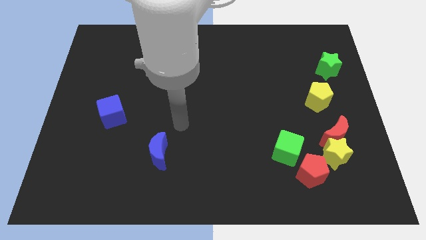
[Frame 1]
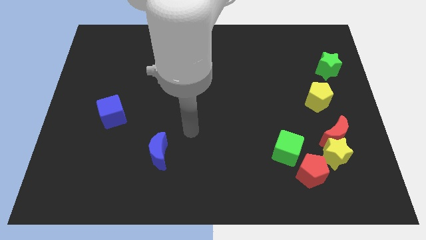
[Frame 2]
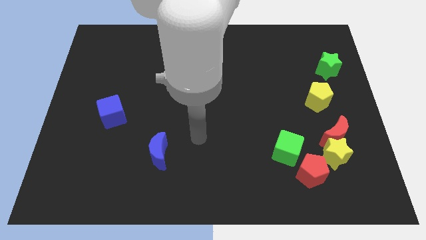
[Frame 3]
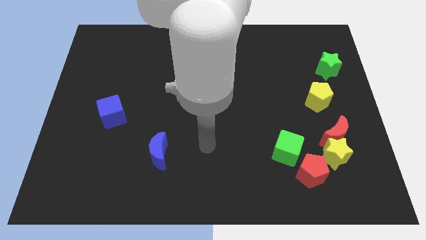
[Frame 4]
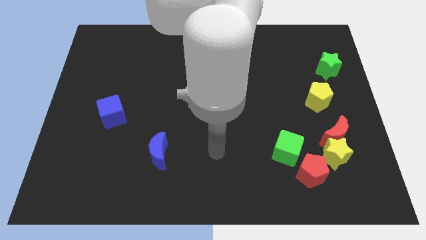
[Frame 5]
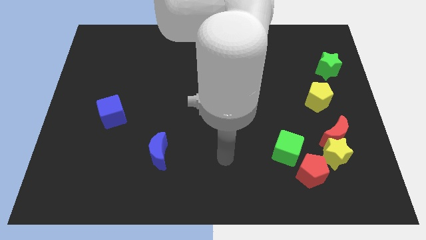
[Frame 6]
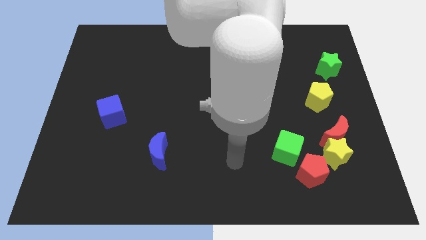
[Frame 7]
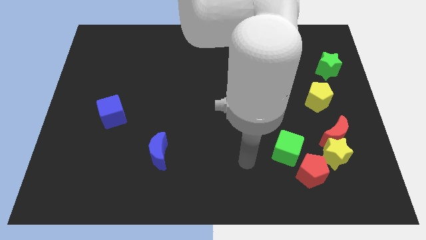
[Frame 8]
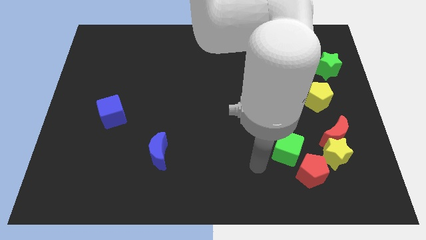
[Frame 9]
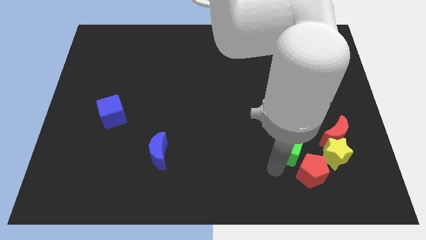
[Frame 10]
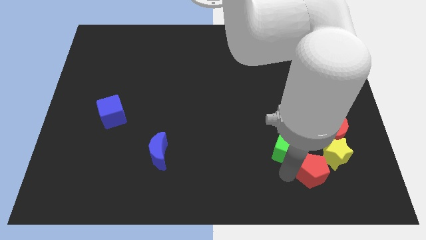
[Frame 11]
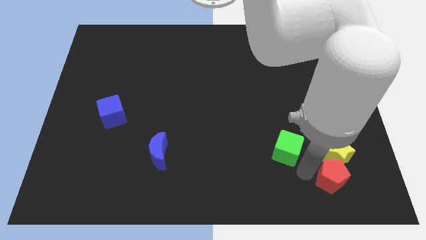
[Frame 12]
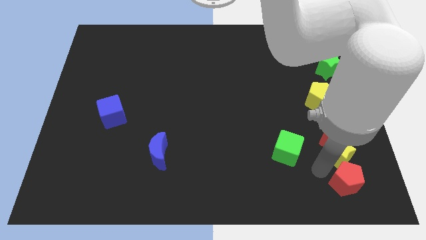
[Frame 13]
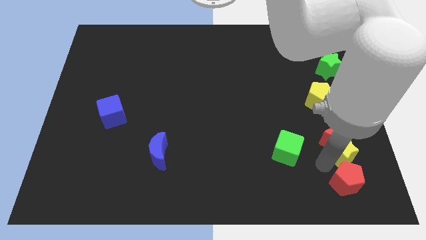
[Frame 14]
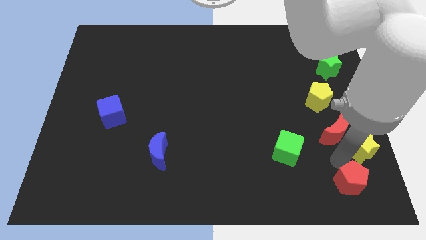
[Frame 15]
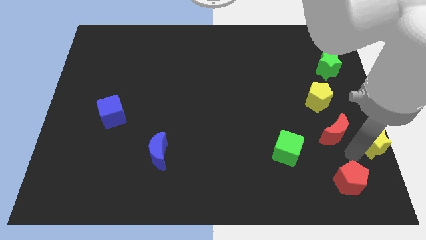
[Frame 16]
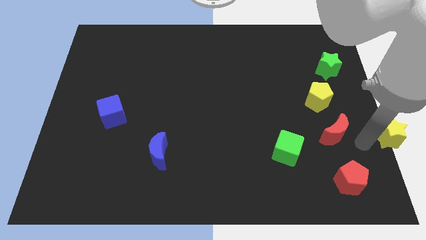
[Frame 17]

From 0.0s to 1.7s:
move the red moon away from the yellow star

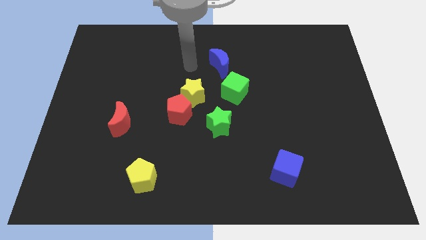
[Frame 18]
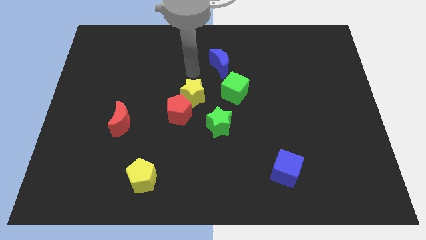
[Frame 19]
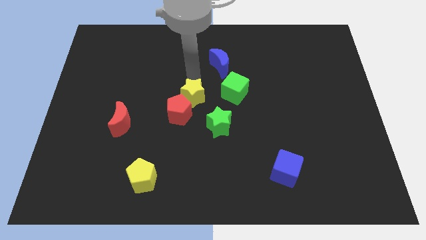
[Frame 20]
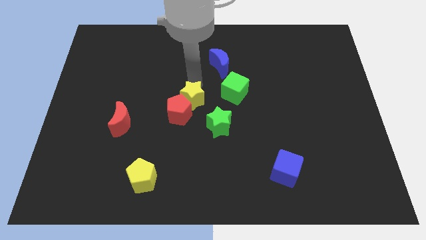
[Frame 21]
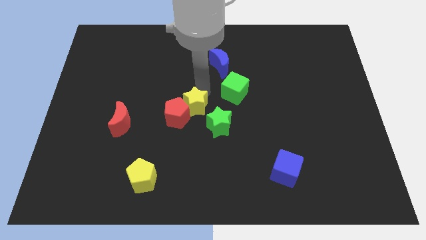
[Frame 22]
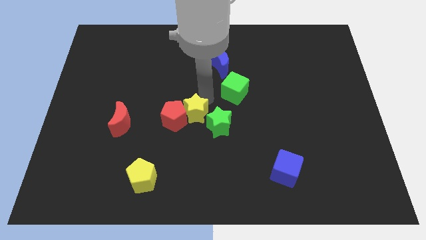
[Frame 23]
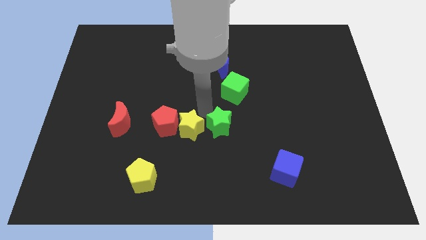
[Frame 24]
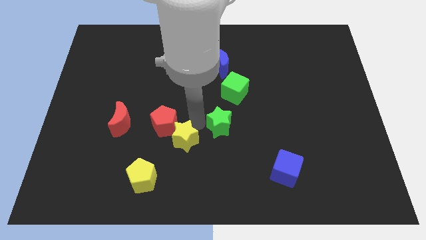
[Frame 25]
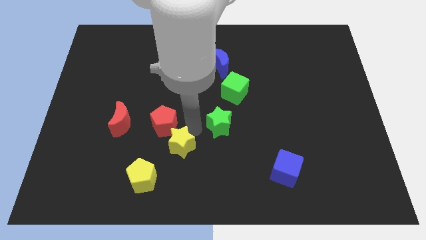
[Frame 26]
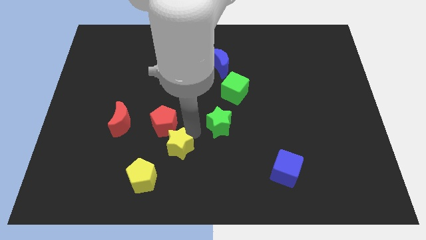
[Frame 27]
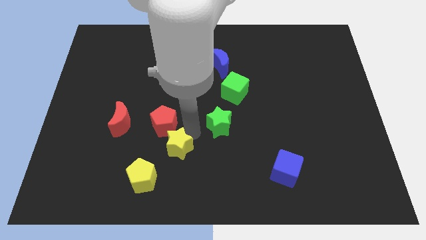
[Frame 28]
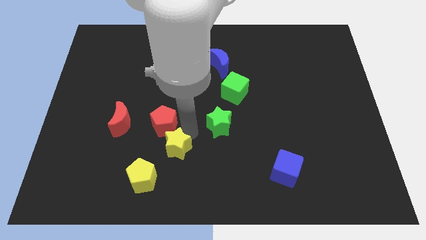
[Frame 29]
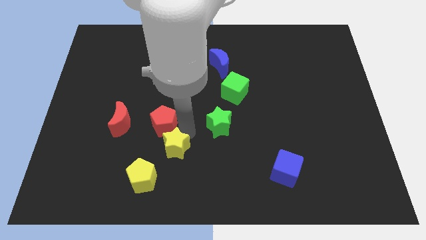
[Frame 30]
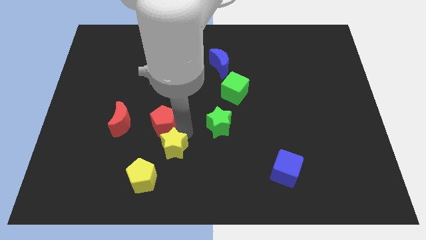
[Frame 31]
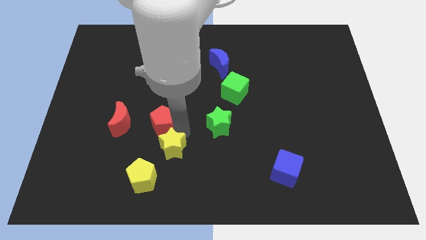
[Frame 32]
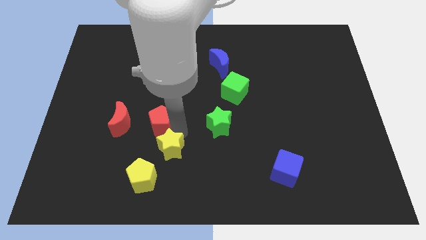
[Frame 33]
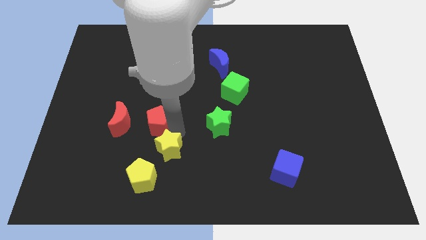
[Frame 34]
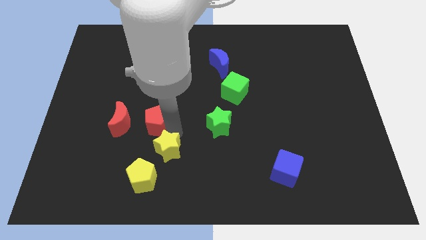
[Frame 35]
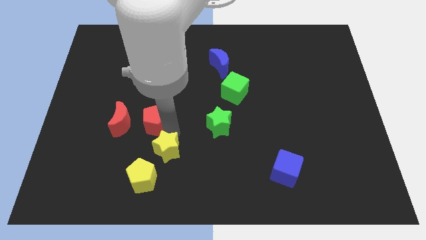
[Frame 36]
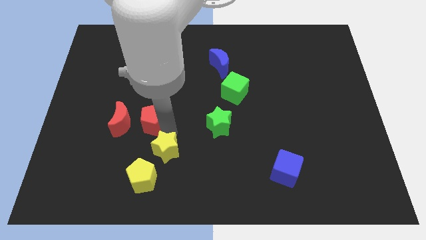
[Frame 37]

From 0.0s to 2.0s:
move the red pentagon away from the yellow star and green star

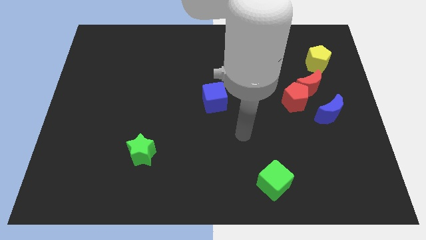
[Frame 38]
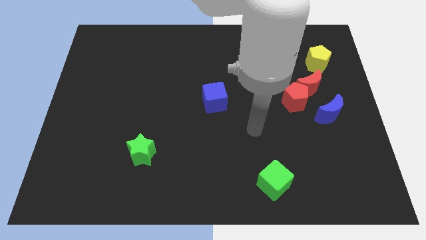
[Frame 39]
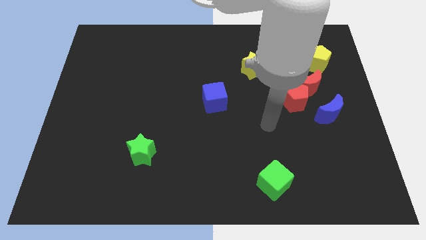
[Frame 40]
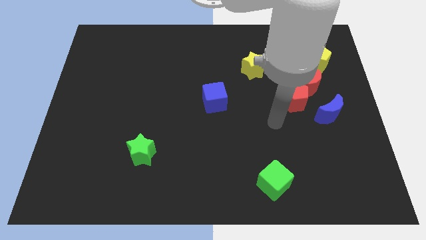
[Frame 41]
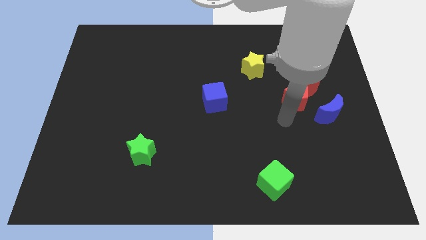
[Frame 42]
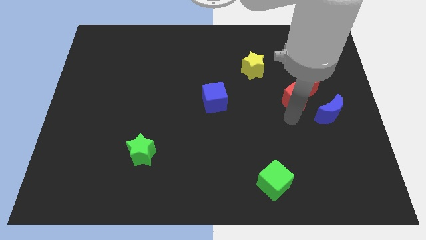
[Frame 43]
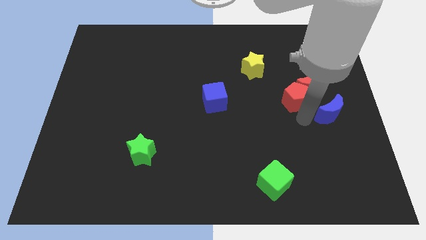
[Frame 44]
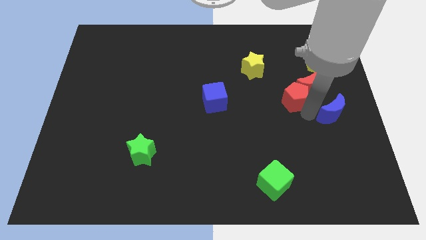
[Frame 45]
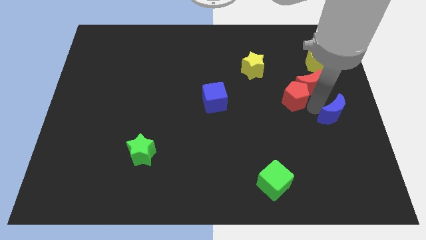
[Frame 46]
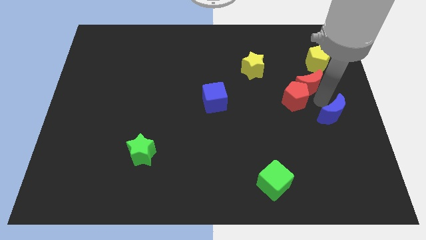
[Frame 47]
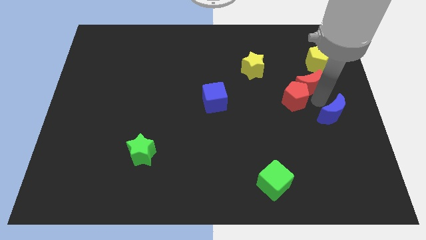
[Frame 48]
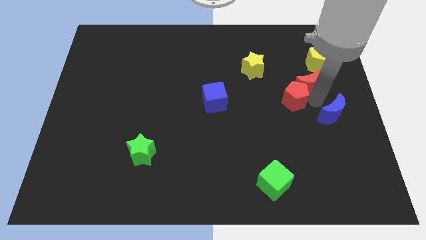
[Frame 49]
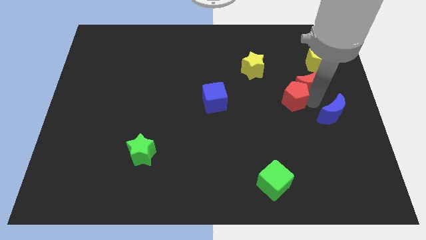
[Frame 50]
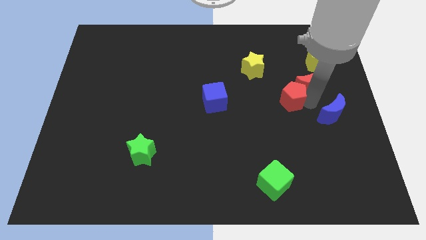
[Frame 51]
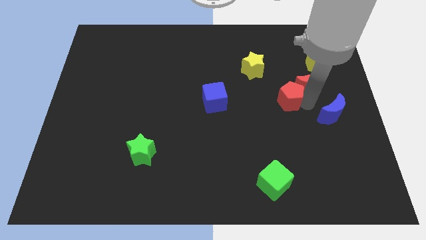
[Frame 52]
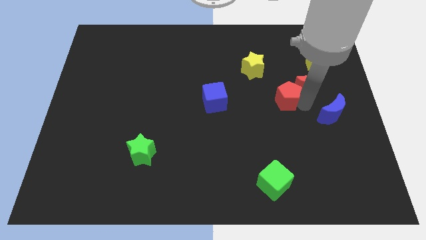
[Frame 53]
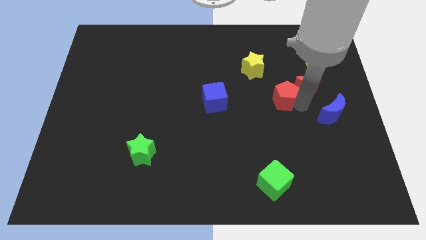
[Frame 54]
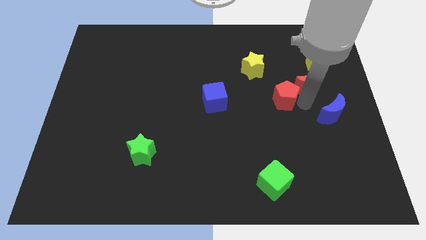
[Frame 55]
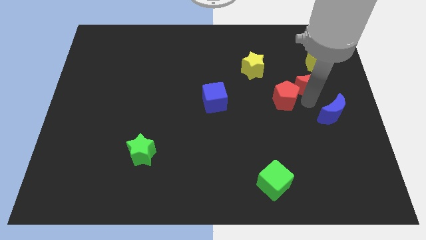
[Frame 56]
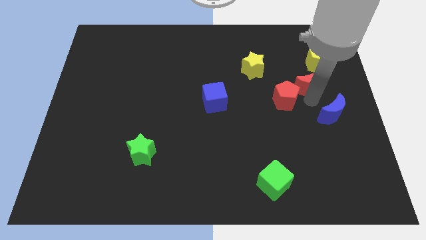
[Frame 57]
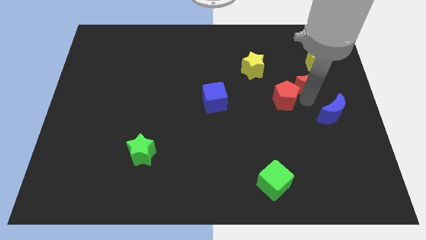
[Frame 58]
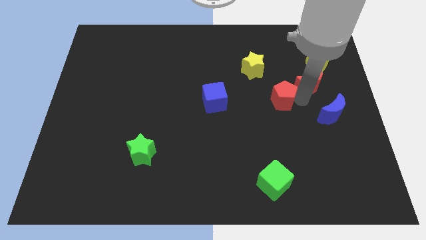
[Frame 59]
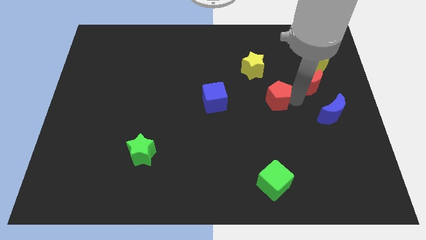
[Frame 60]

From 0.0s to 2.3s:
move the red pentagon away from the red moon and blue moon

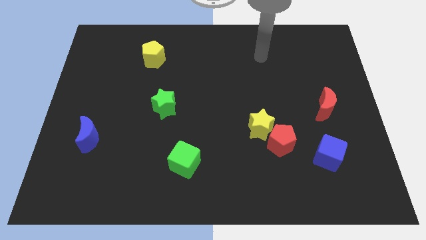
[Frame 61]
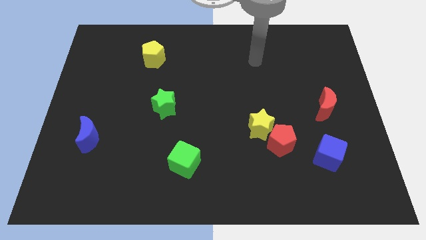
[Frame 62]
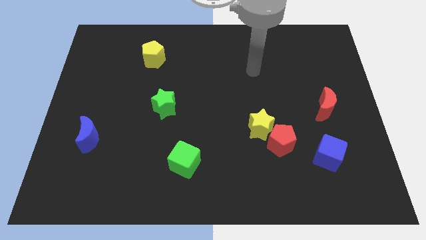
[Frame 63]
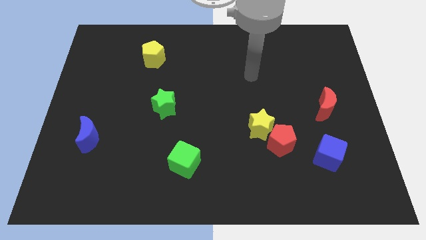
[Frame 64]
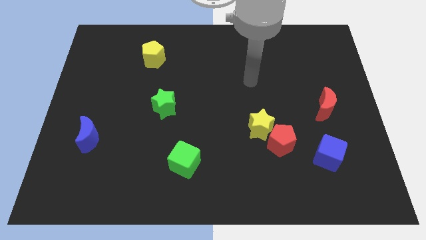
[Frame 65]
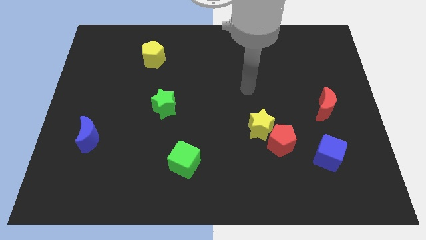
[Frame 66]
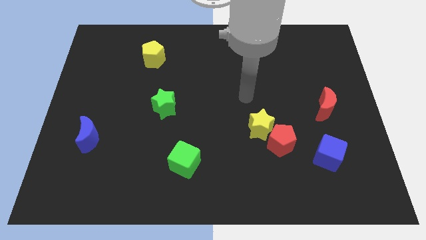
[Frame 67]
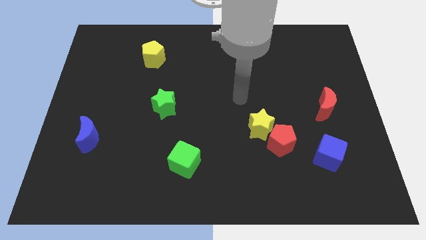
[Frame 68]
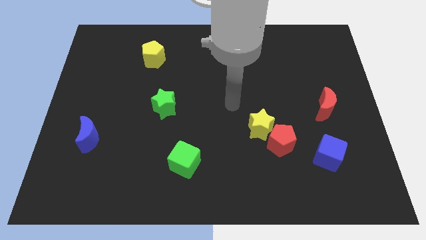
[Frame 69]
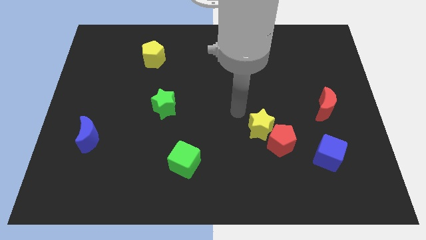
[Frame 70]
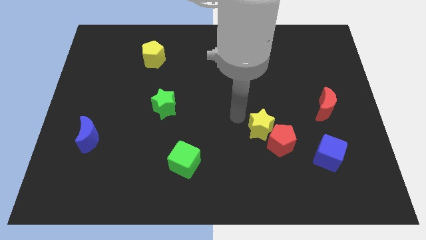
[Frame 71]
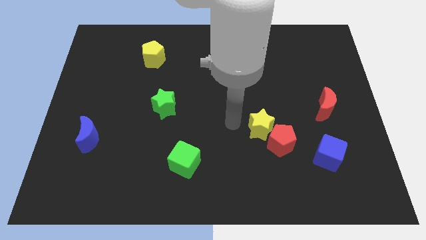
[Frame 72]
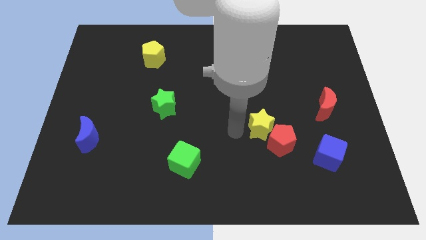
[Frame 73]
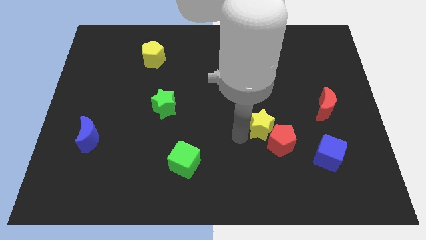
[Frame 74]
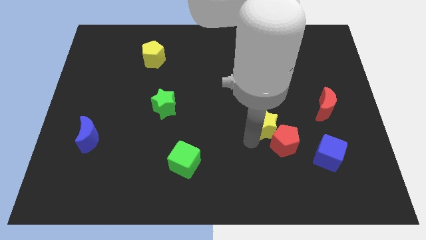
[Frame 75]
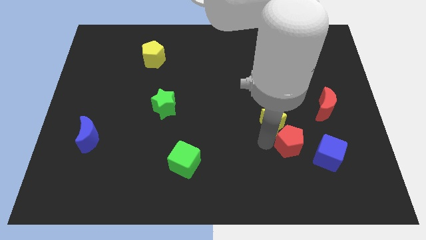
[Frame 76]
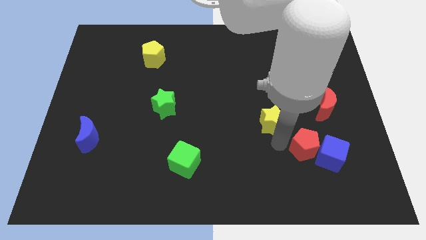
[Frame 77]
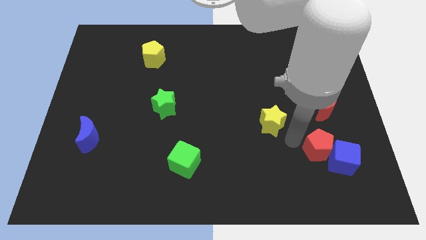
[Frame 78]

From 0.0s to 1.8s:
pull the yellow star apart from the red pentagon

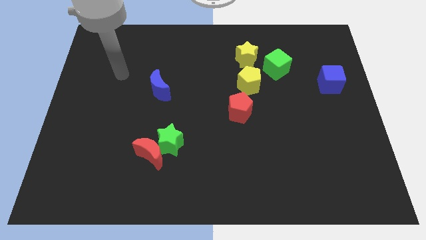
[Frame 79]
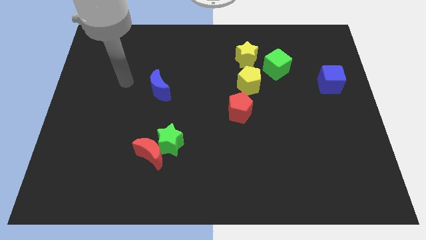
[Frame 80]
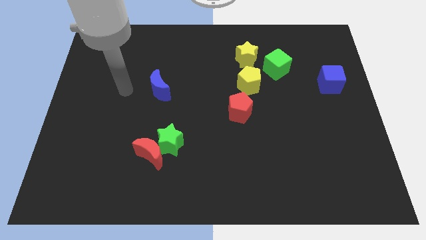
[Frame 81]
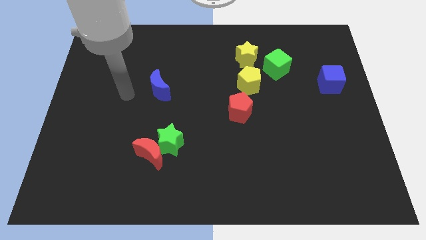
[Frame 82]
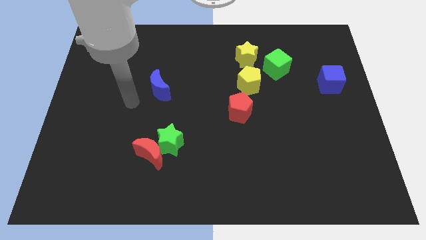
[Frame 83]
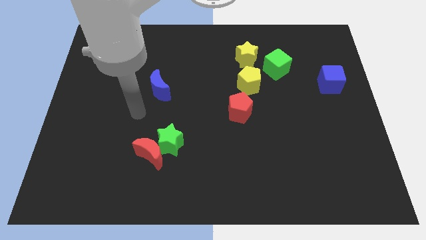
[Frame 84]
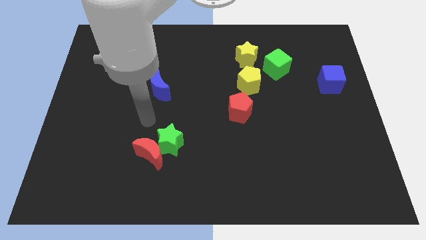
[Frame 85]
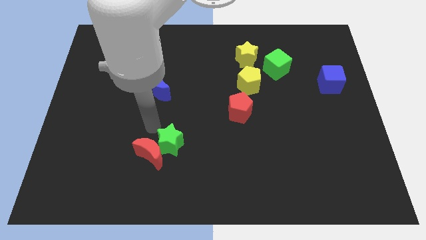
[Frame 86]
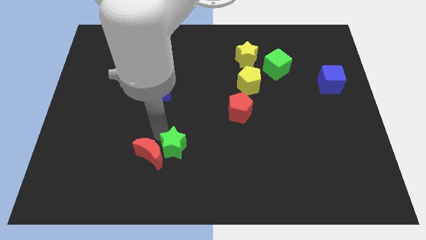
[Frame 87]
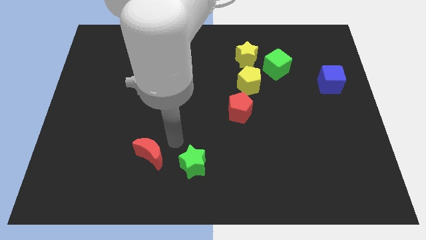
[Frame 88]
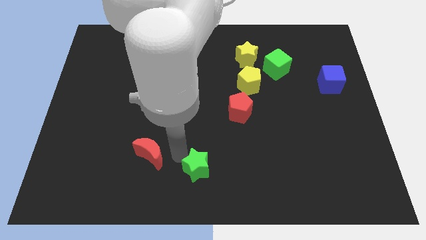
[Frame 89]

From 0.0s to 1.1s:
move the red moon away from the green star

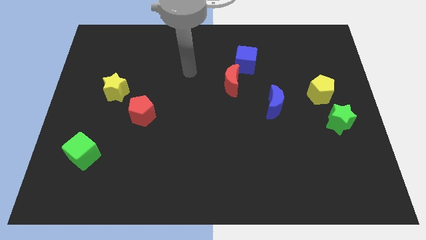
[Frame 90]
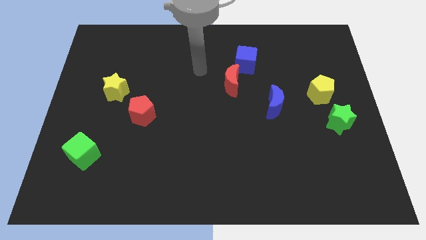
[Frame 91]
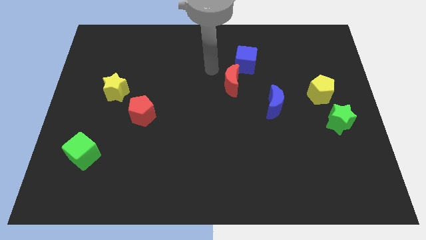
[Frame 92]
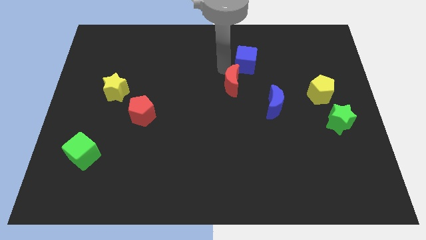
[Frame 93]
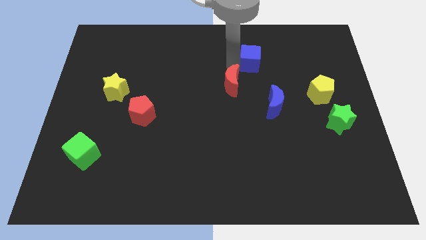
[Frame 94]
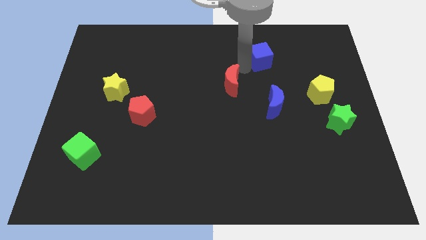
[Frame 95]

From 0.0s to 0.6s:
move the red moon away from the blue cube
